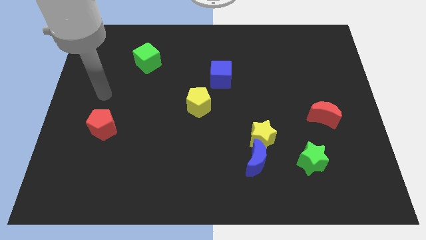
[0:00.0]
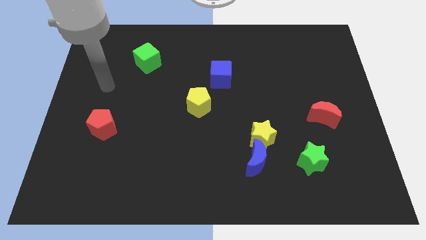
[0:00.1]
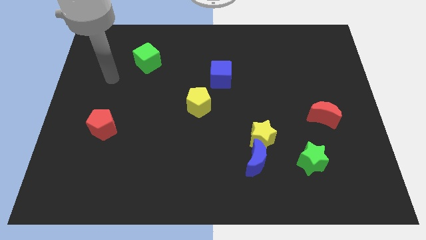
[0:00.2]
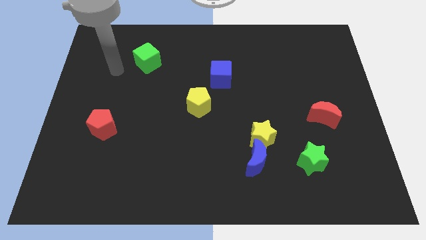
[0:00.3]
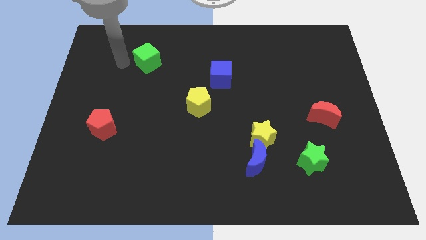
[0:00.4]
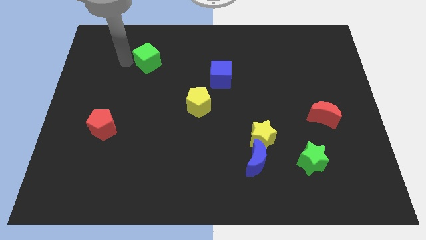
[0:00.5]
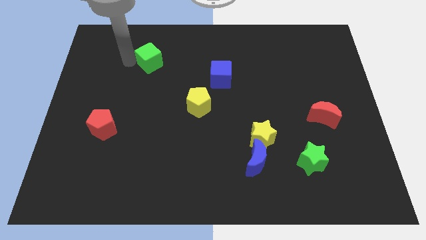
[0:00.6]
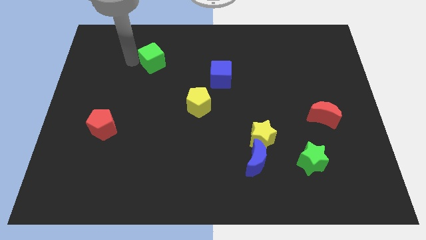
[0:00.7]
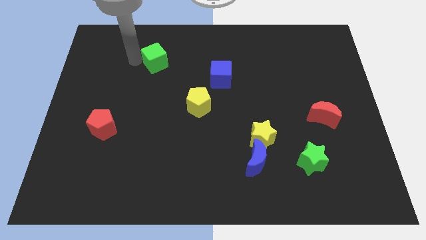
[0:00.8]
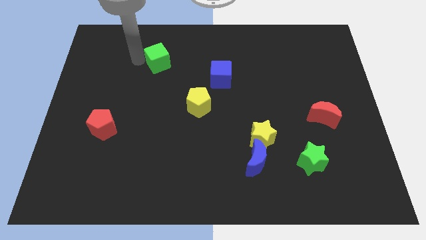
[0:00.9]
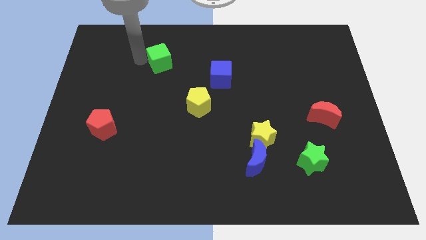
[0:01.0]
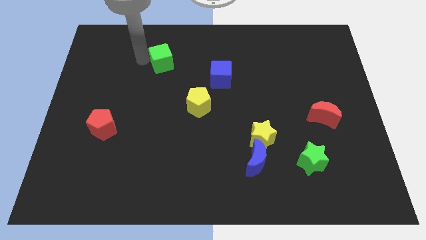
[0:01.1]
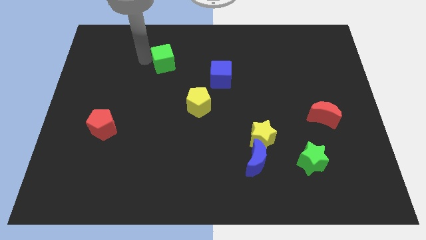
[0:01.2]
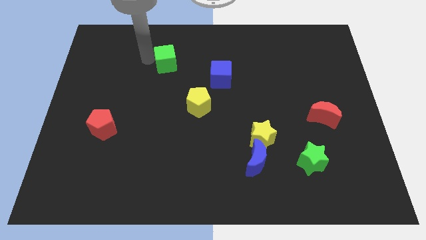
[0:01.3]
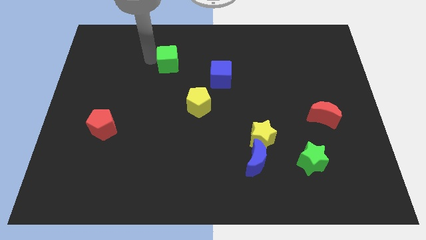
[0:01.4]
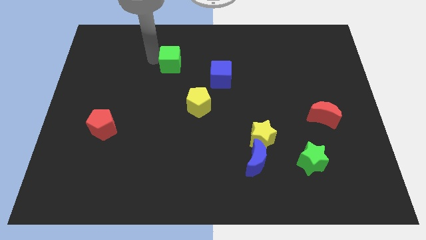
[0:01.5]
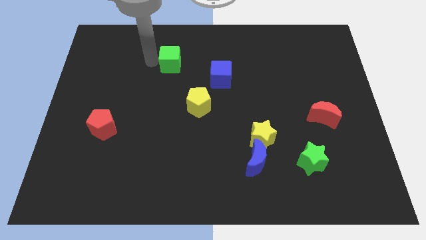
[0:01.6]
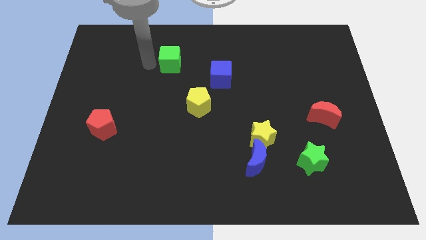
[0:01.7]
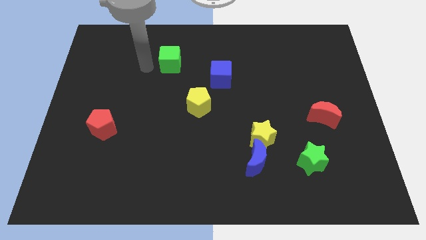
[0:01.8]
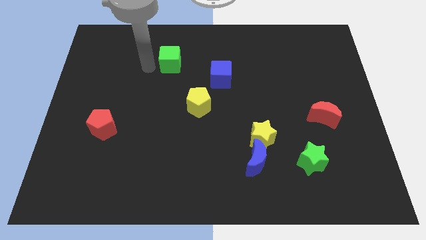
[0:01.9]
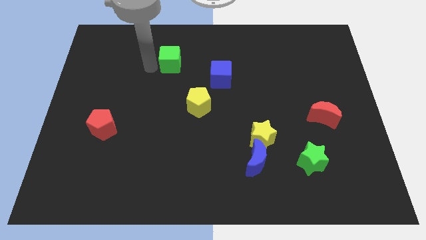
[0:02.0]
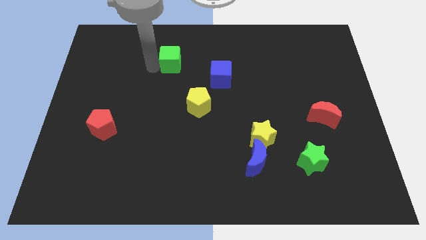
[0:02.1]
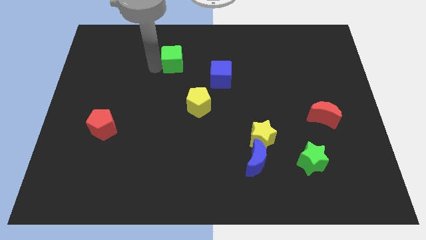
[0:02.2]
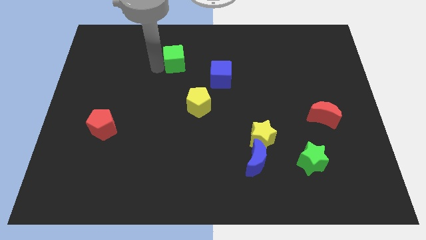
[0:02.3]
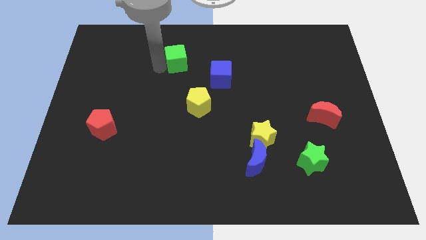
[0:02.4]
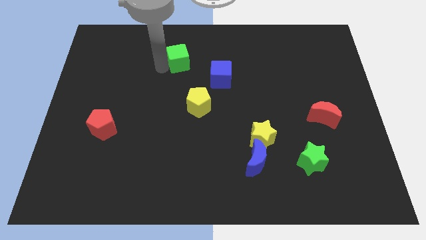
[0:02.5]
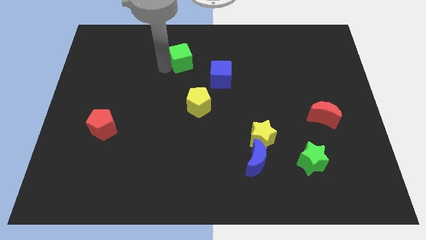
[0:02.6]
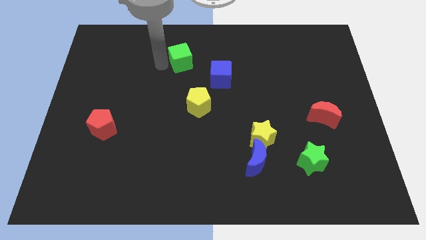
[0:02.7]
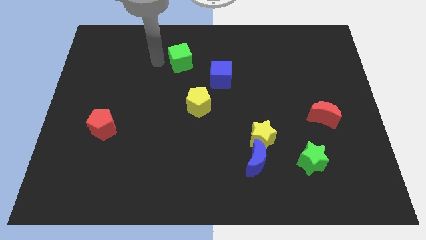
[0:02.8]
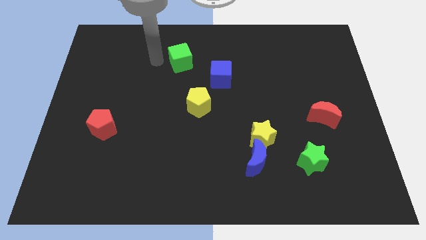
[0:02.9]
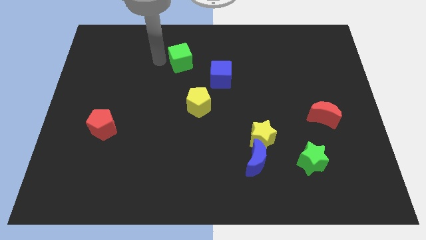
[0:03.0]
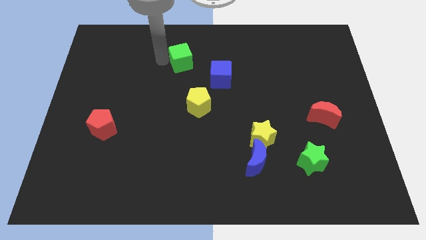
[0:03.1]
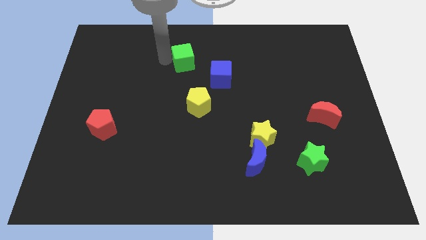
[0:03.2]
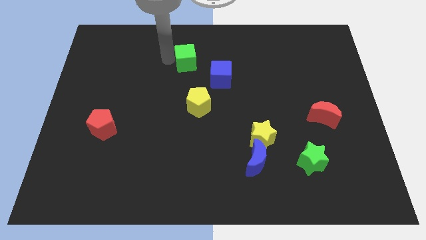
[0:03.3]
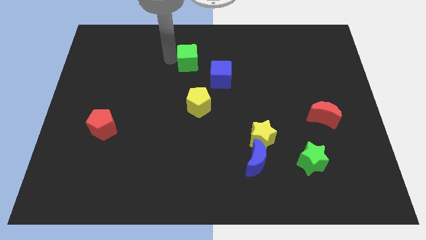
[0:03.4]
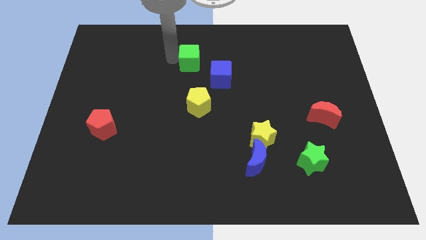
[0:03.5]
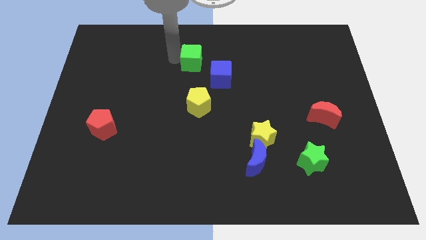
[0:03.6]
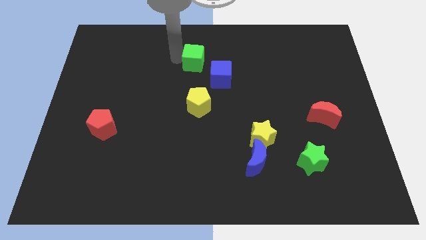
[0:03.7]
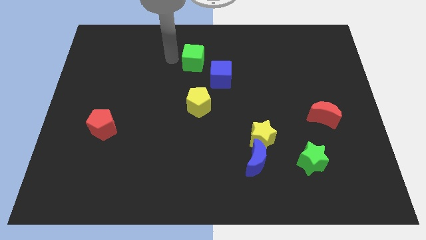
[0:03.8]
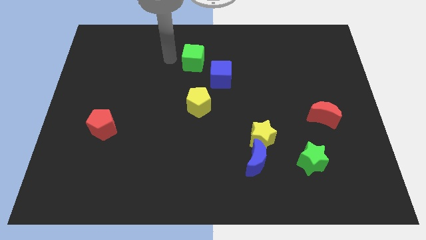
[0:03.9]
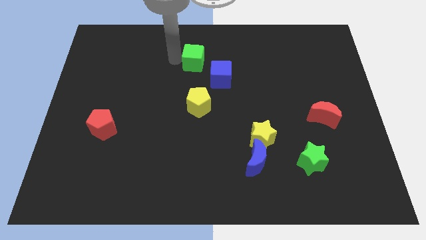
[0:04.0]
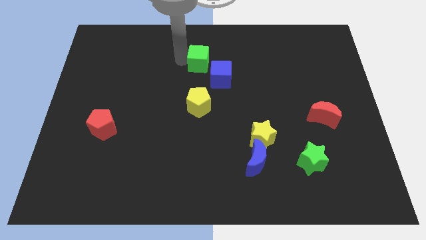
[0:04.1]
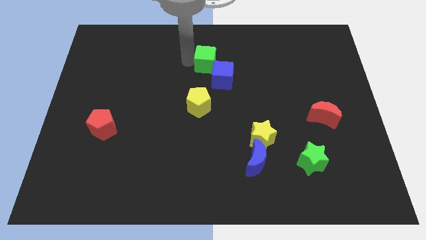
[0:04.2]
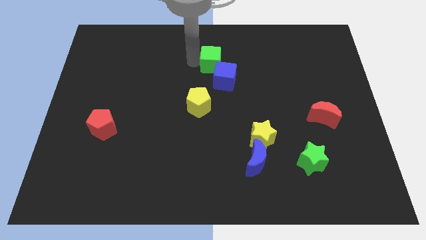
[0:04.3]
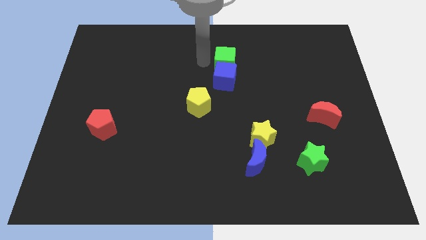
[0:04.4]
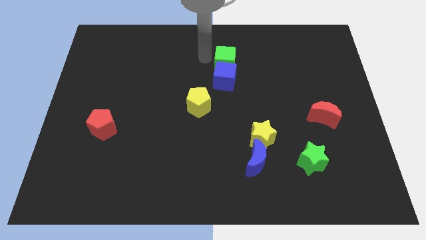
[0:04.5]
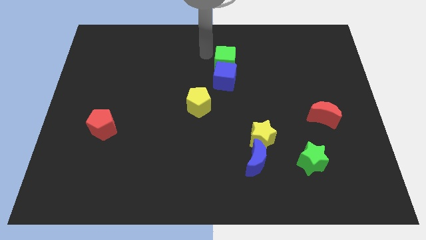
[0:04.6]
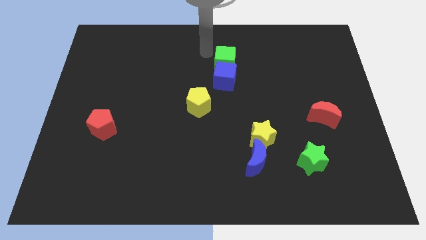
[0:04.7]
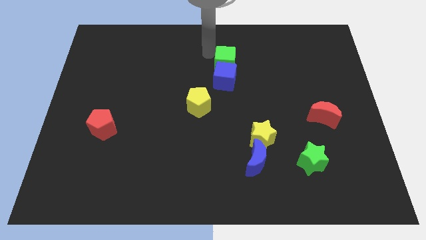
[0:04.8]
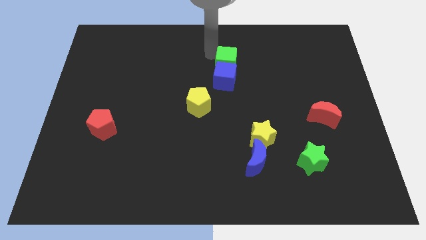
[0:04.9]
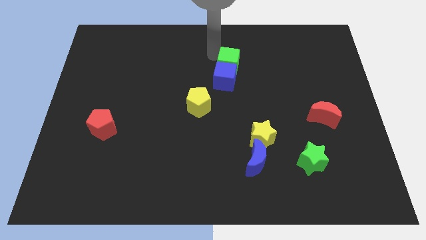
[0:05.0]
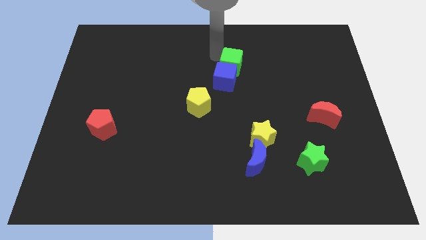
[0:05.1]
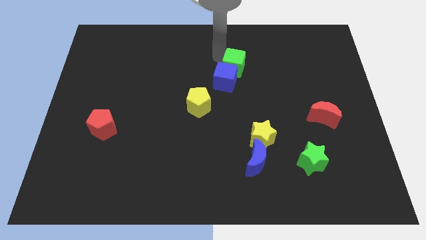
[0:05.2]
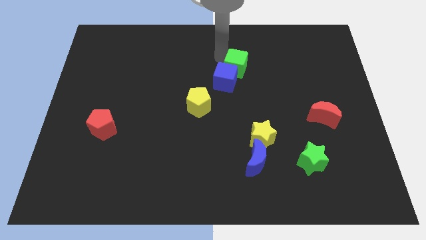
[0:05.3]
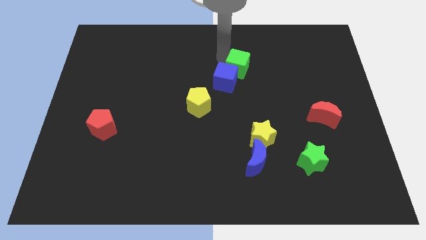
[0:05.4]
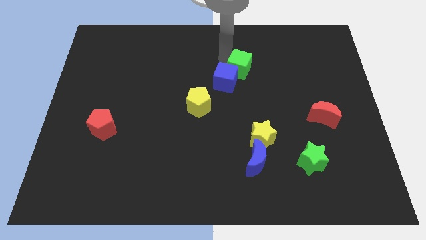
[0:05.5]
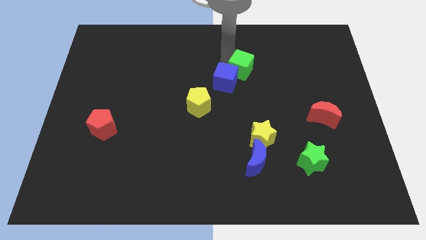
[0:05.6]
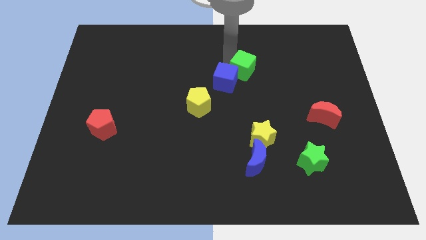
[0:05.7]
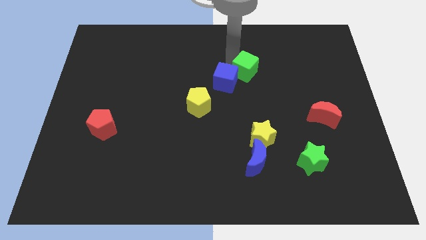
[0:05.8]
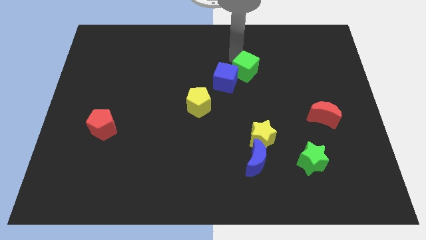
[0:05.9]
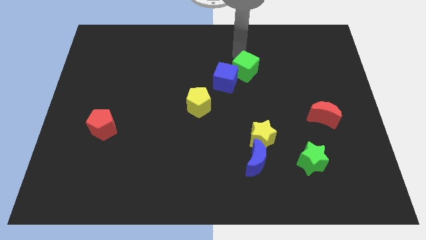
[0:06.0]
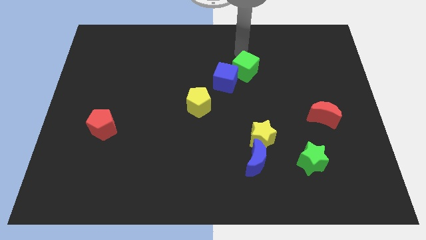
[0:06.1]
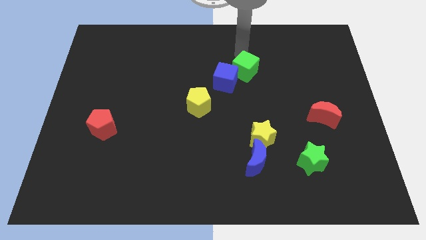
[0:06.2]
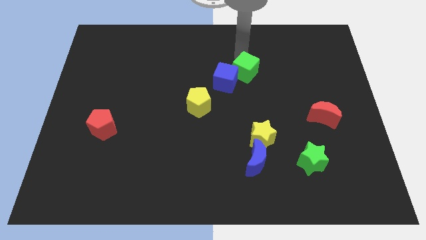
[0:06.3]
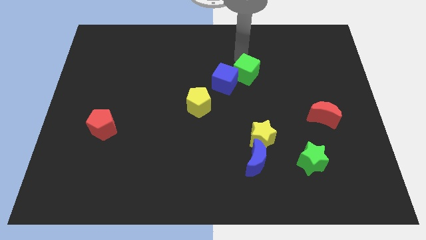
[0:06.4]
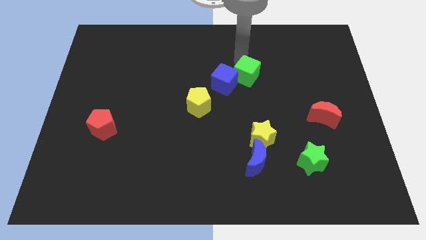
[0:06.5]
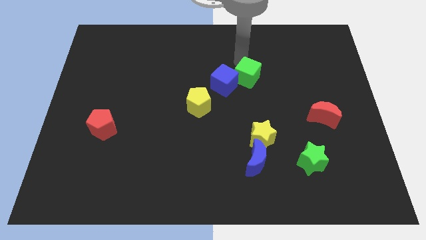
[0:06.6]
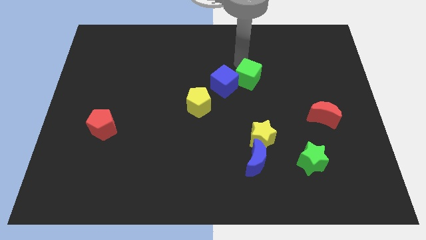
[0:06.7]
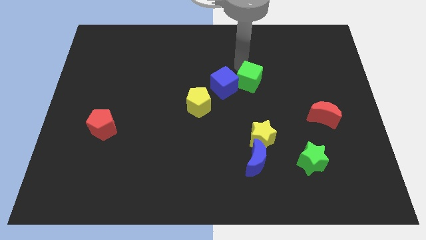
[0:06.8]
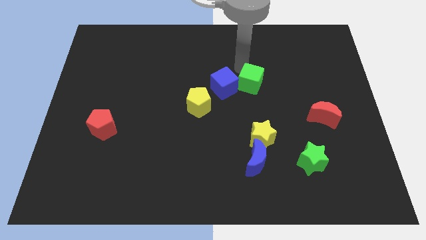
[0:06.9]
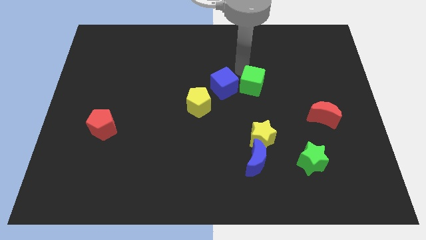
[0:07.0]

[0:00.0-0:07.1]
push the green cube to the top side of the yellow star

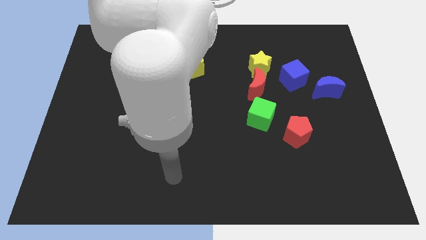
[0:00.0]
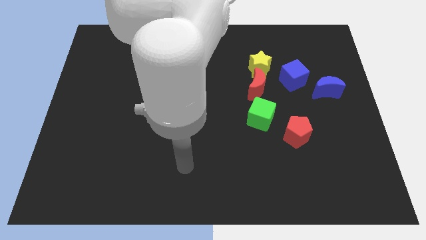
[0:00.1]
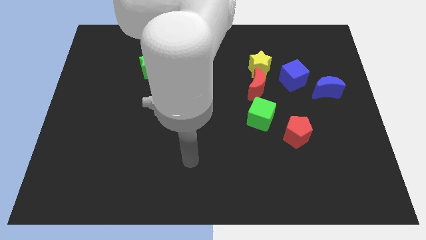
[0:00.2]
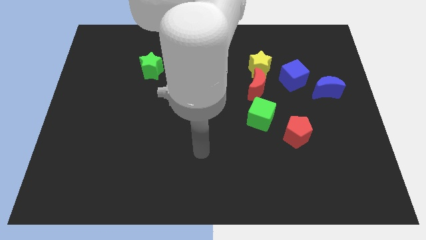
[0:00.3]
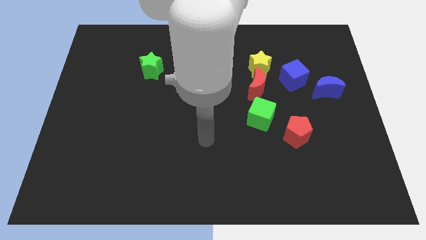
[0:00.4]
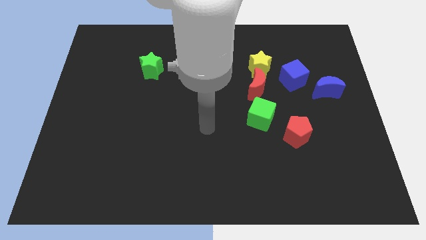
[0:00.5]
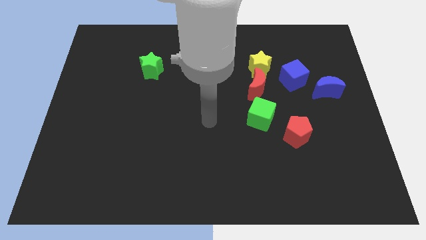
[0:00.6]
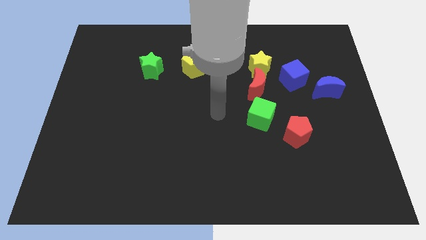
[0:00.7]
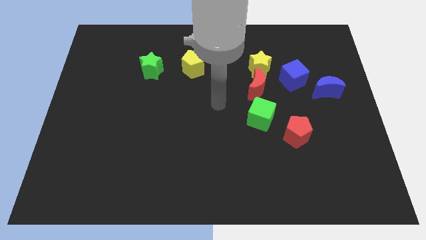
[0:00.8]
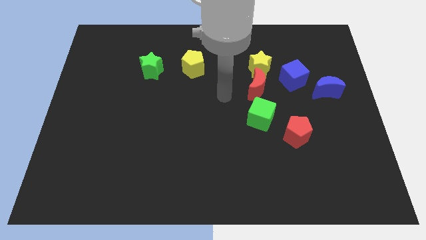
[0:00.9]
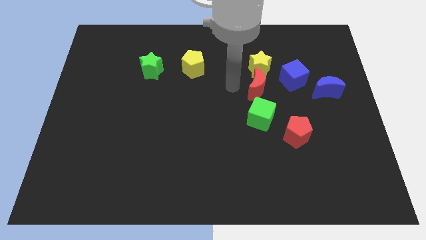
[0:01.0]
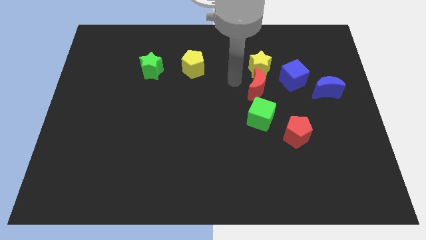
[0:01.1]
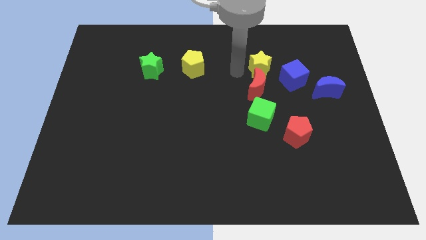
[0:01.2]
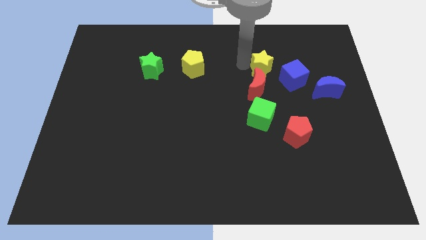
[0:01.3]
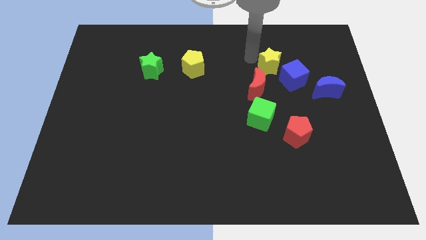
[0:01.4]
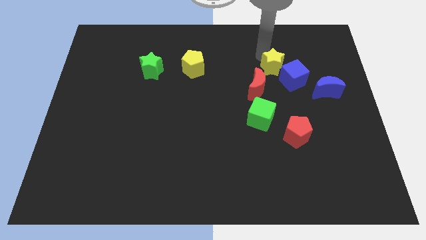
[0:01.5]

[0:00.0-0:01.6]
move the blue cube below the yellow star
